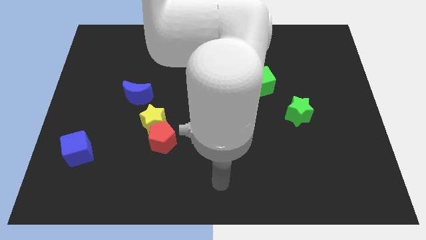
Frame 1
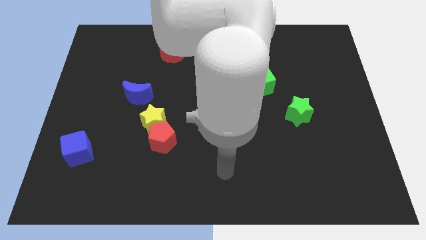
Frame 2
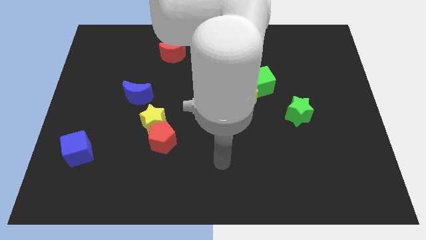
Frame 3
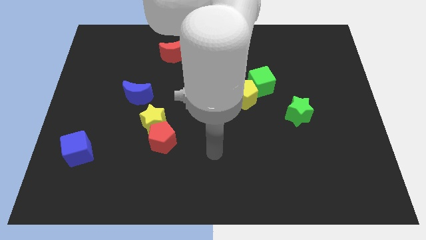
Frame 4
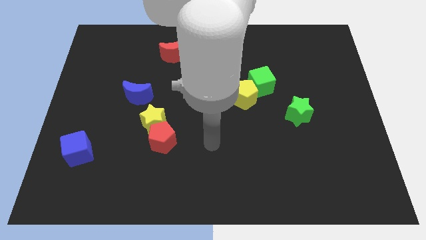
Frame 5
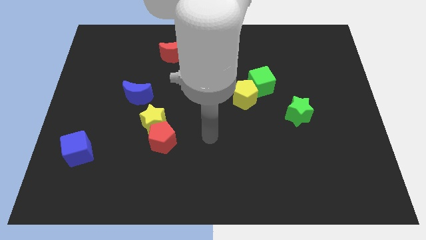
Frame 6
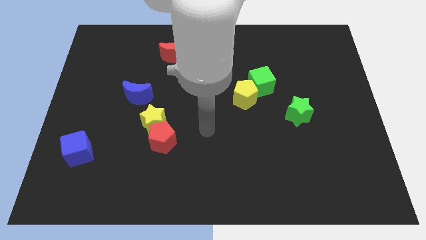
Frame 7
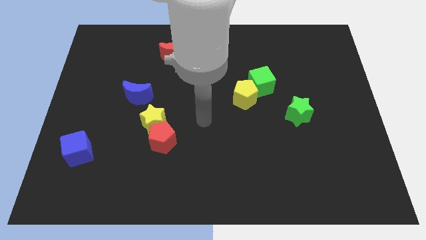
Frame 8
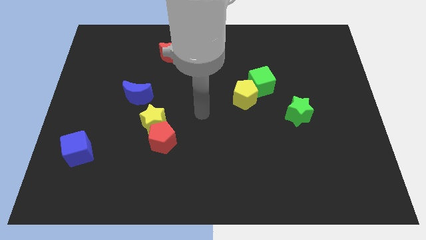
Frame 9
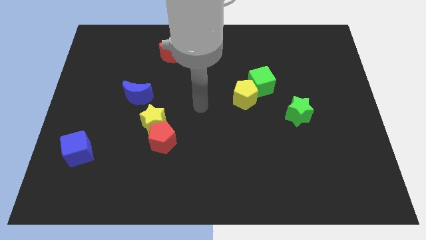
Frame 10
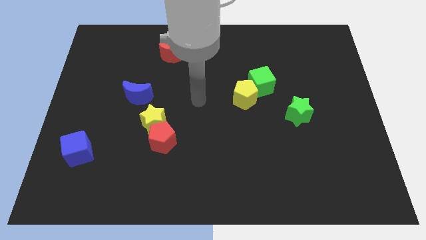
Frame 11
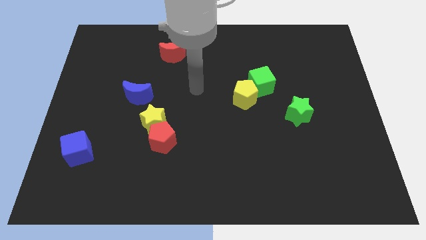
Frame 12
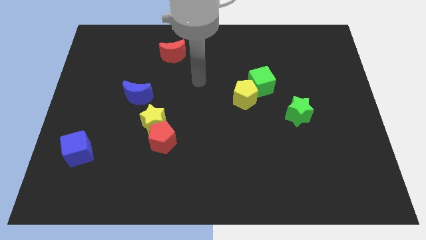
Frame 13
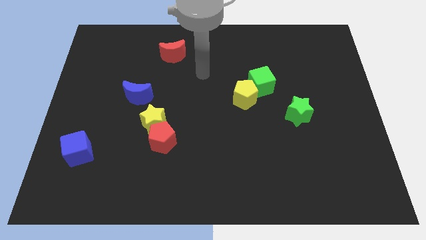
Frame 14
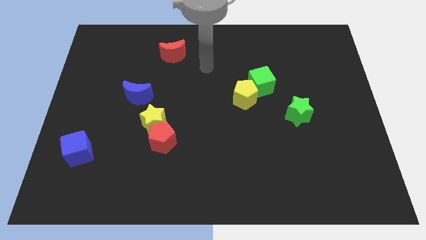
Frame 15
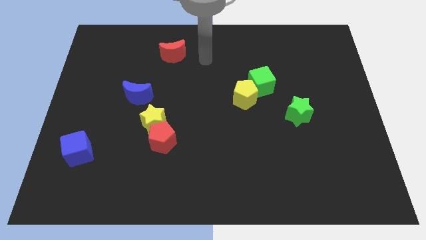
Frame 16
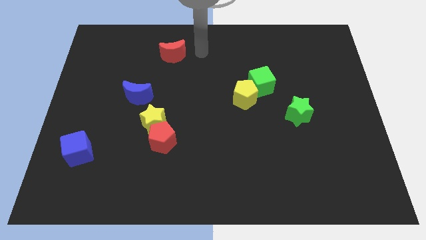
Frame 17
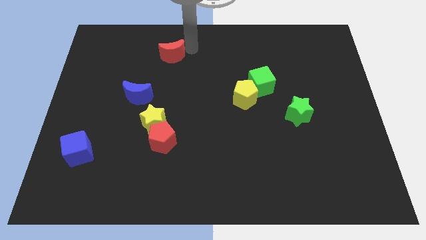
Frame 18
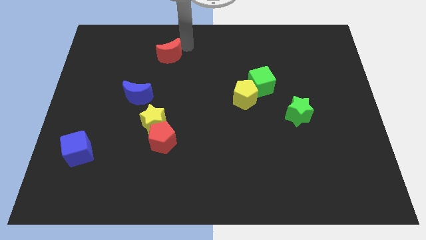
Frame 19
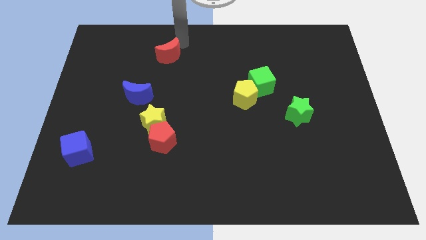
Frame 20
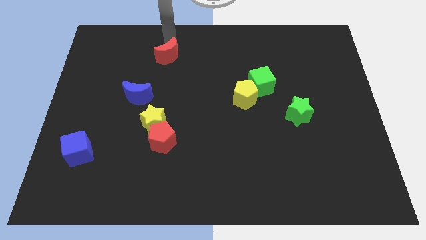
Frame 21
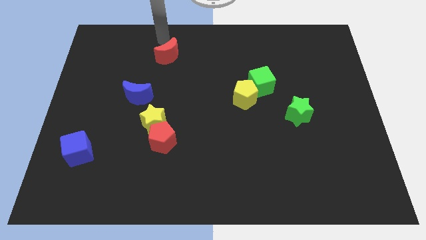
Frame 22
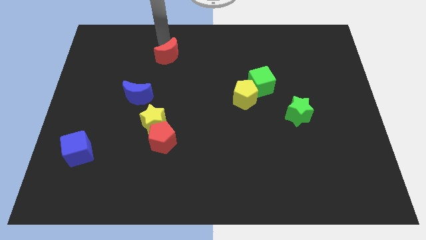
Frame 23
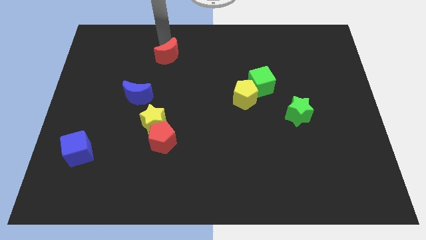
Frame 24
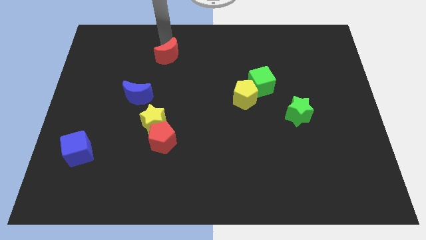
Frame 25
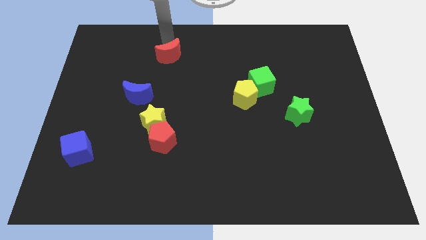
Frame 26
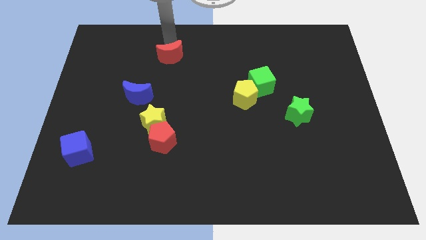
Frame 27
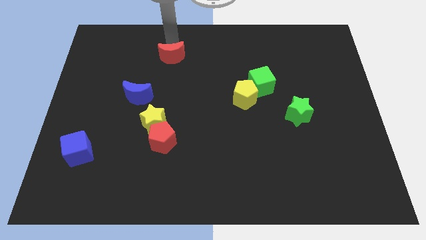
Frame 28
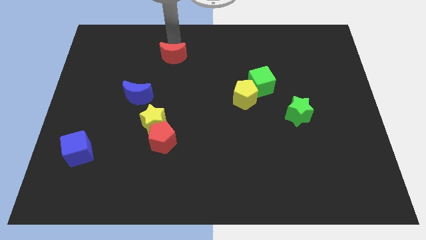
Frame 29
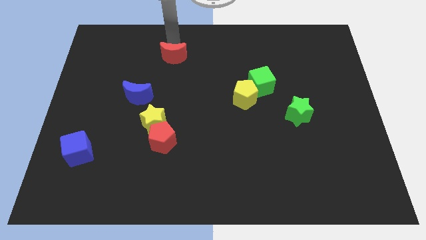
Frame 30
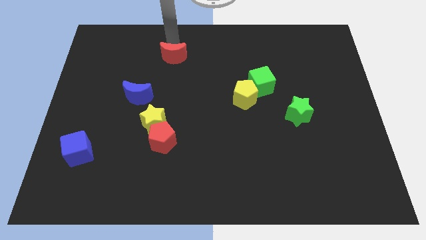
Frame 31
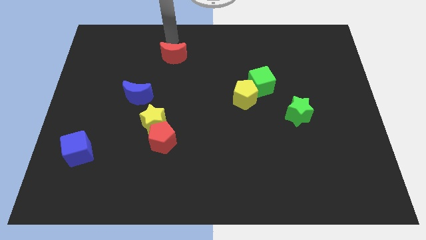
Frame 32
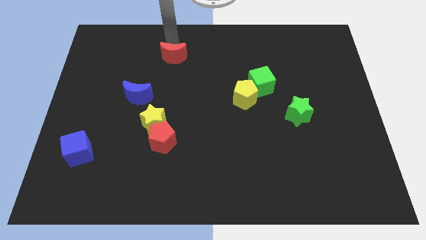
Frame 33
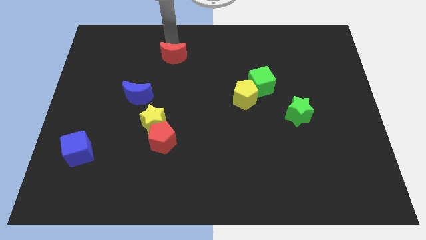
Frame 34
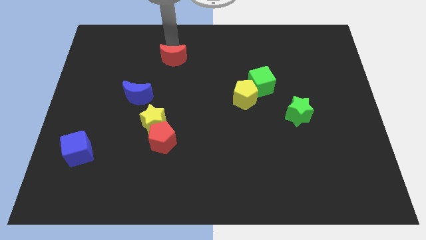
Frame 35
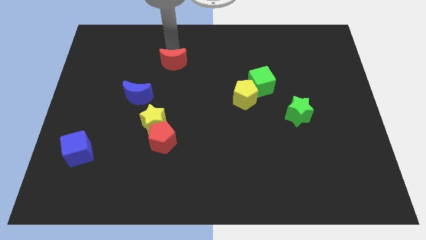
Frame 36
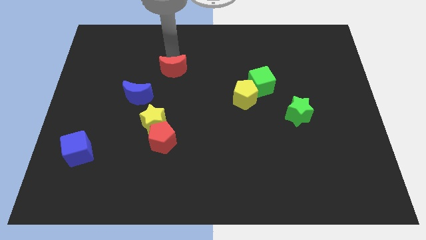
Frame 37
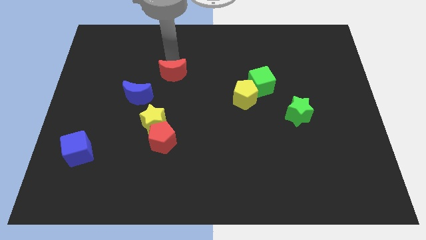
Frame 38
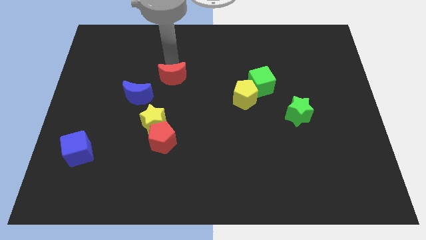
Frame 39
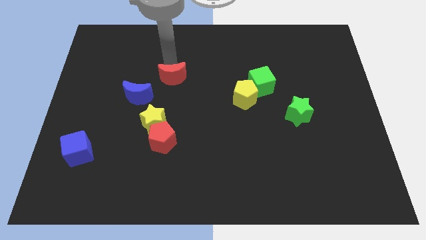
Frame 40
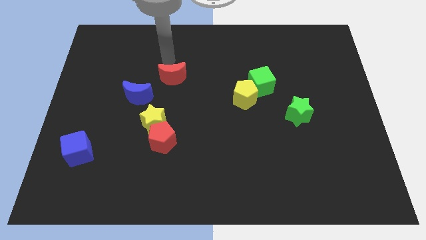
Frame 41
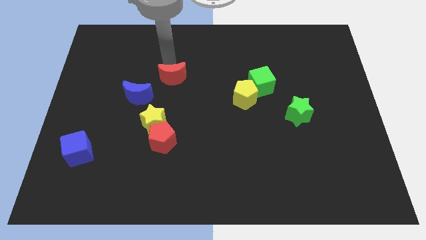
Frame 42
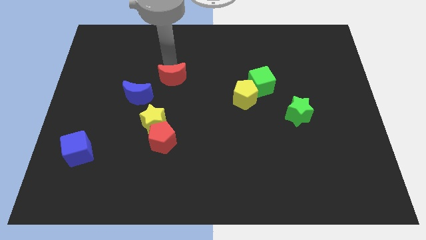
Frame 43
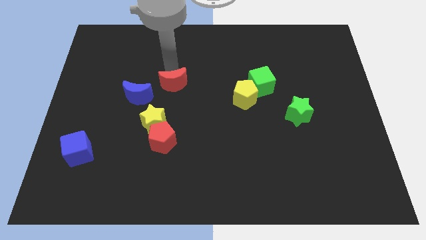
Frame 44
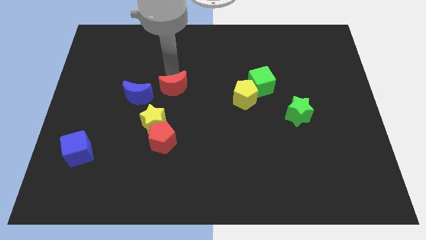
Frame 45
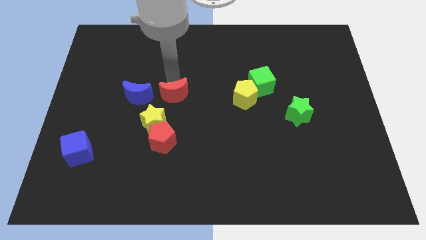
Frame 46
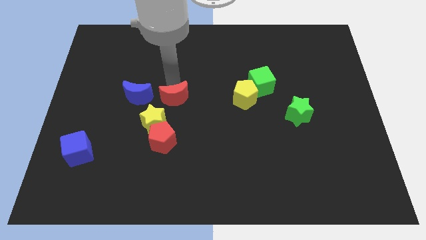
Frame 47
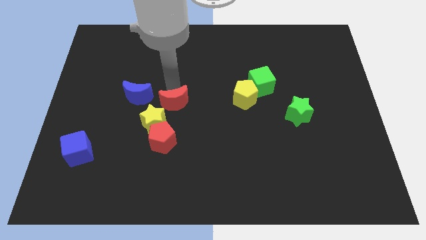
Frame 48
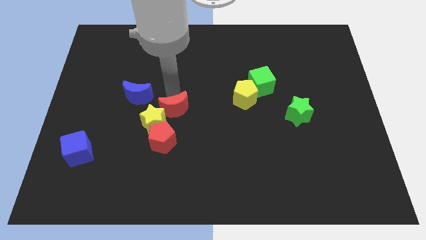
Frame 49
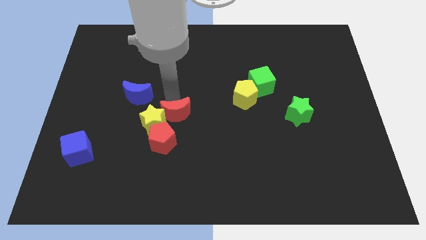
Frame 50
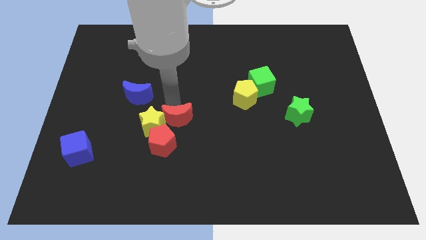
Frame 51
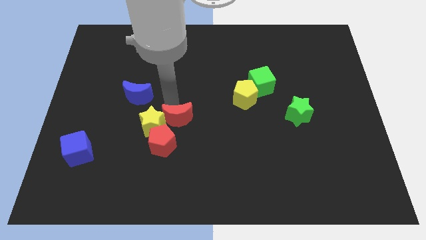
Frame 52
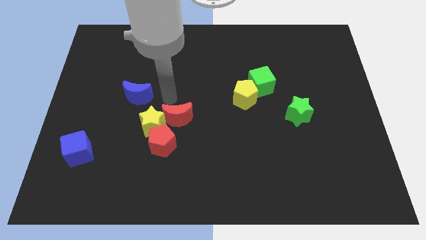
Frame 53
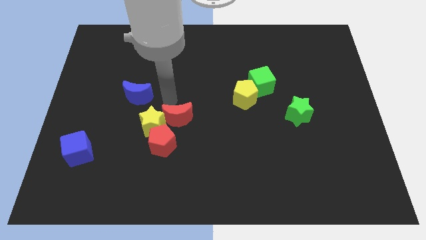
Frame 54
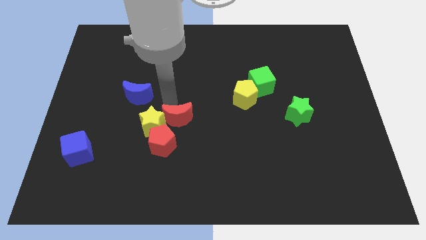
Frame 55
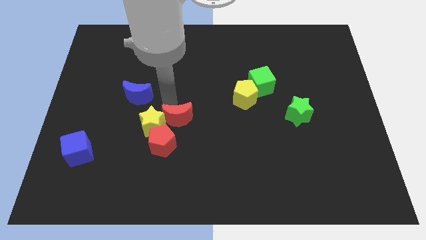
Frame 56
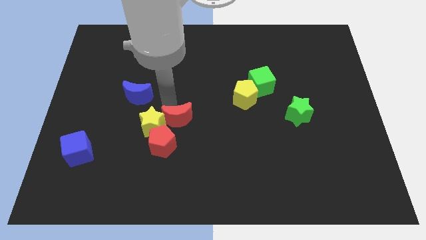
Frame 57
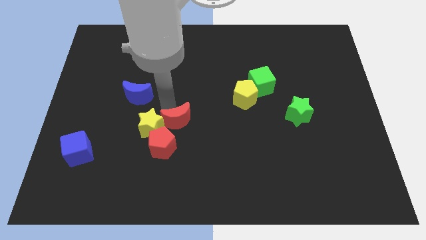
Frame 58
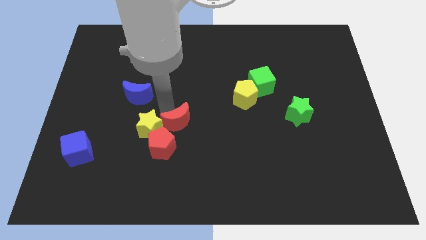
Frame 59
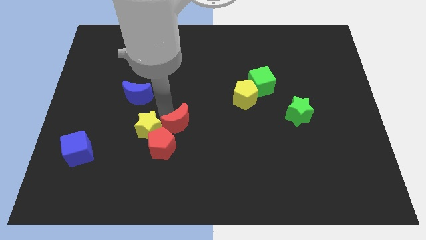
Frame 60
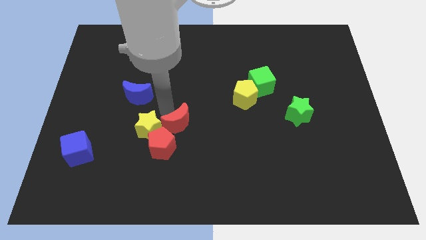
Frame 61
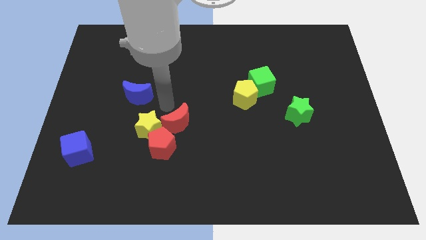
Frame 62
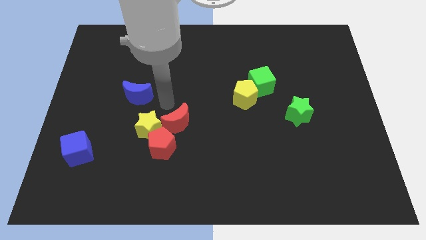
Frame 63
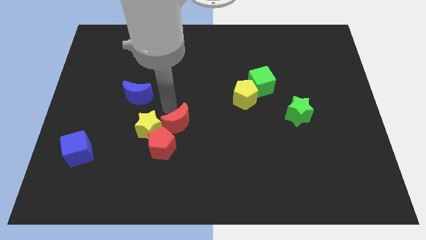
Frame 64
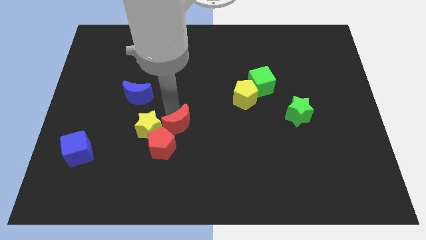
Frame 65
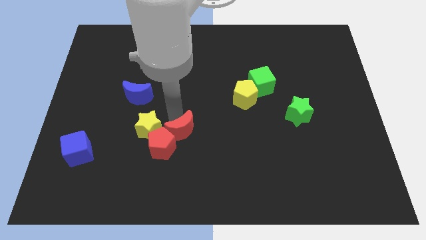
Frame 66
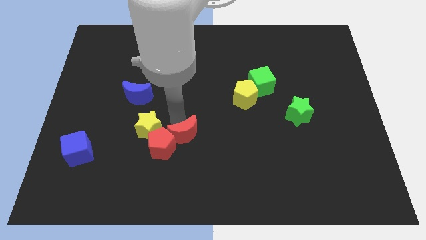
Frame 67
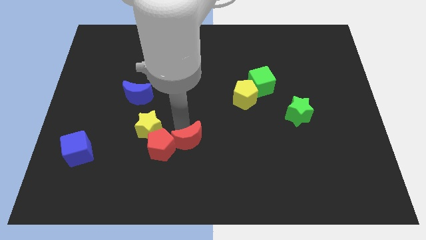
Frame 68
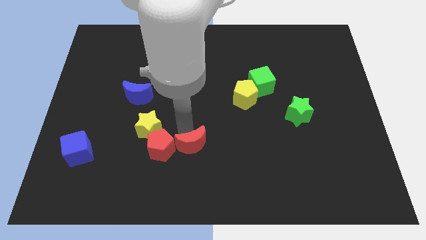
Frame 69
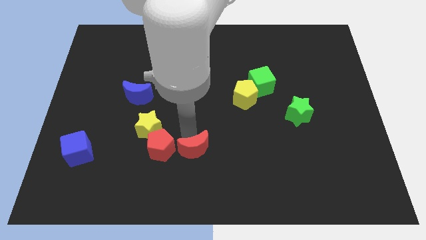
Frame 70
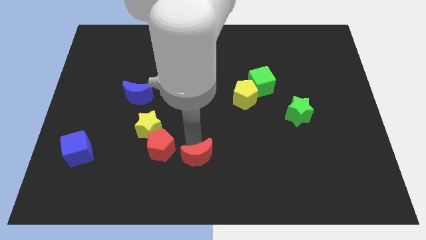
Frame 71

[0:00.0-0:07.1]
put the red moon to the bottom
